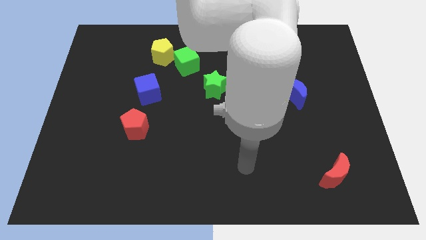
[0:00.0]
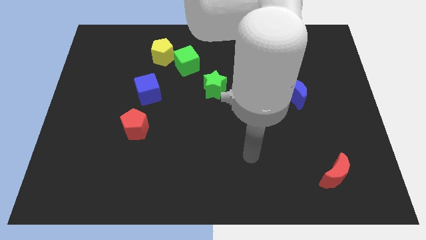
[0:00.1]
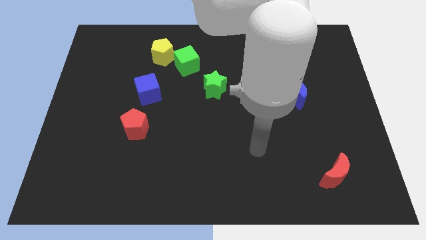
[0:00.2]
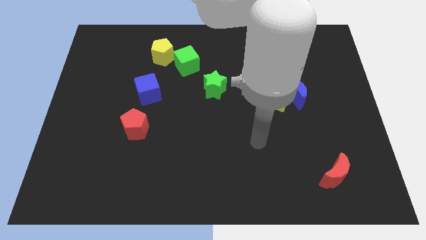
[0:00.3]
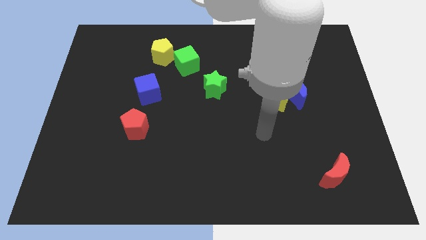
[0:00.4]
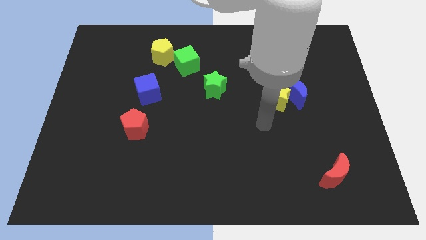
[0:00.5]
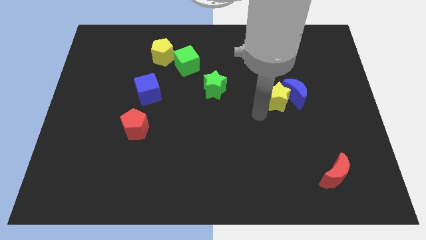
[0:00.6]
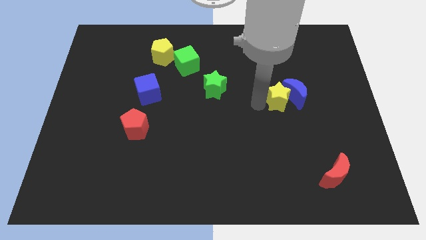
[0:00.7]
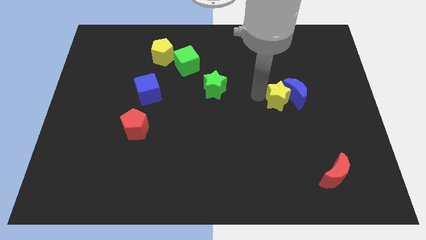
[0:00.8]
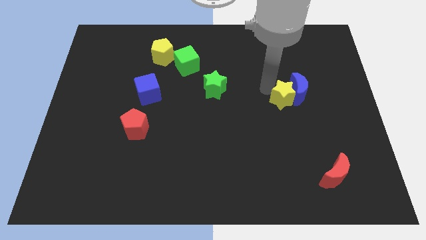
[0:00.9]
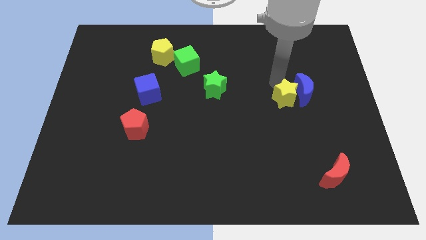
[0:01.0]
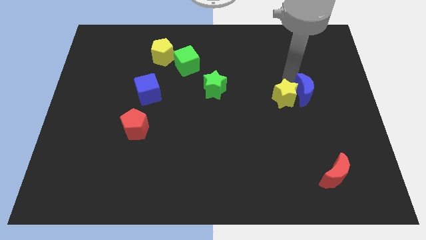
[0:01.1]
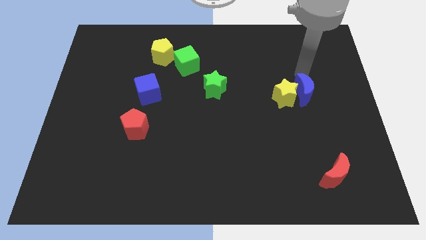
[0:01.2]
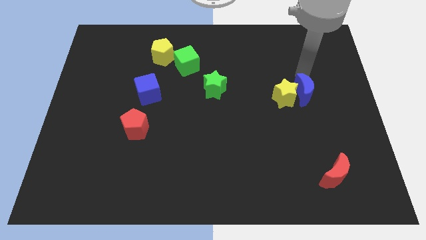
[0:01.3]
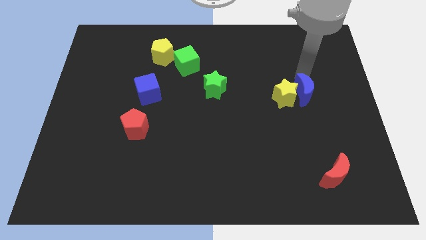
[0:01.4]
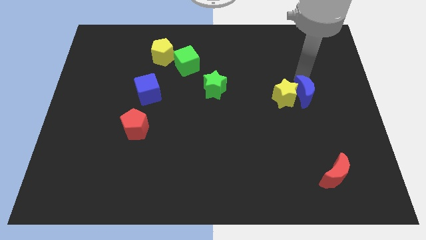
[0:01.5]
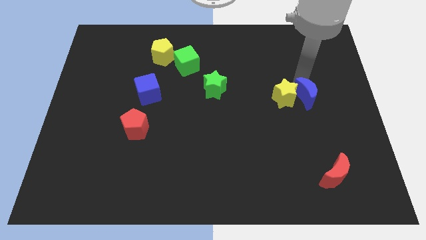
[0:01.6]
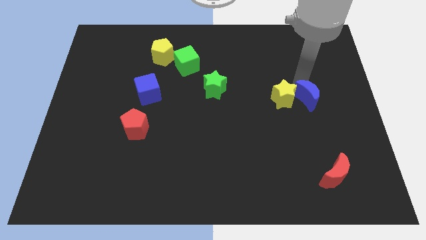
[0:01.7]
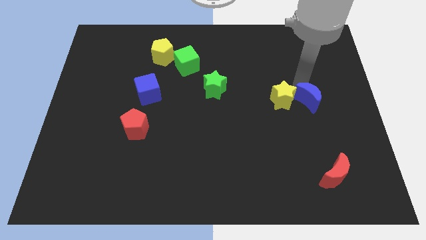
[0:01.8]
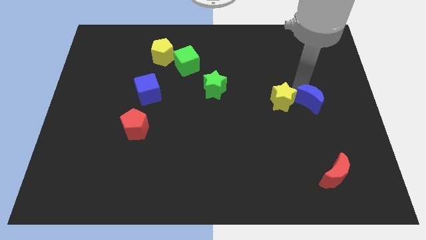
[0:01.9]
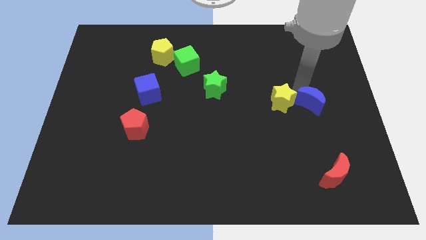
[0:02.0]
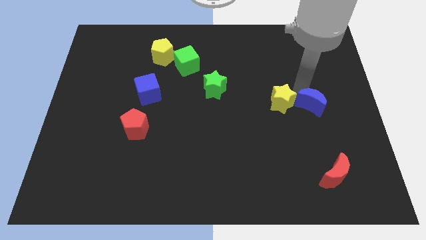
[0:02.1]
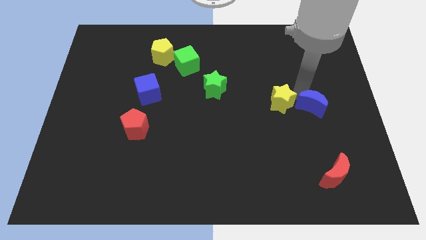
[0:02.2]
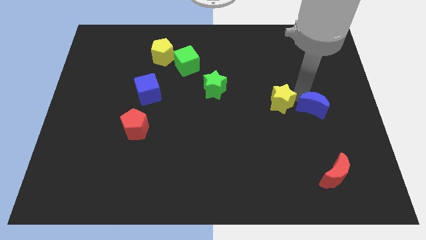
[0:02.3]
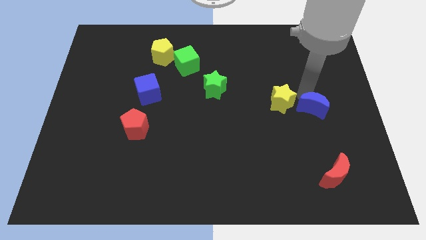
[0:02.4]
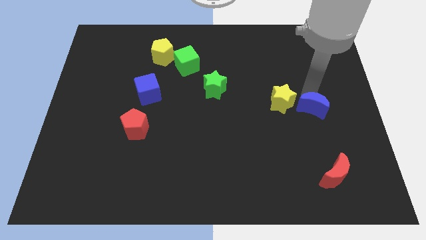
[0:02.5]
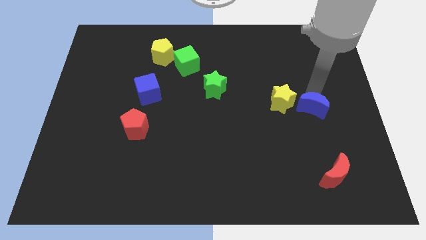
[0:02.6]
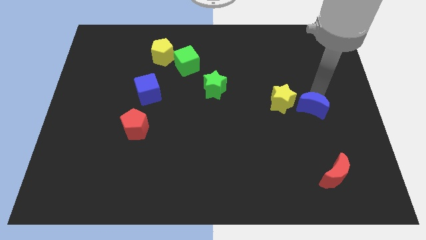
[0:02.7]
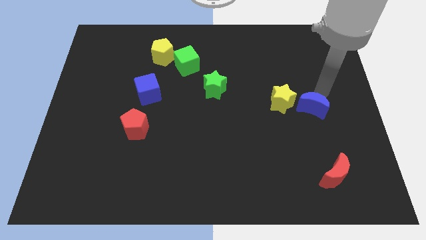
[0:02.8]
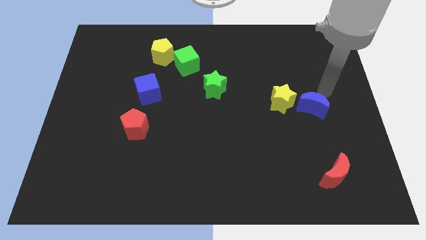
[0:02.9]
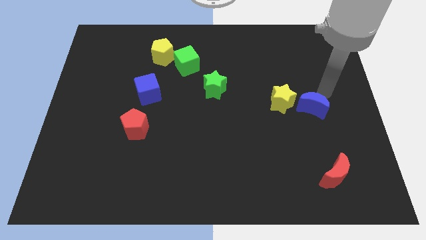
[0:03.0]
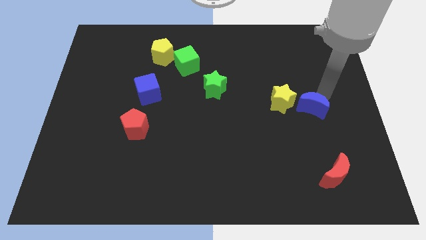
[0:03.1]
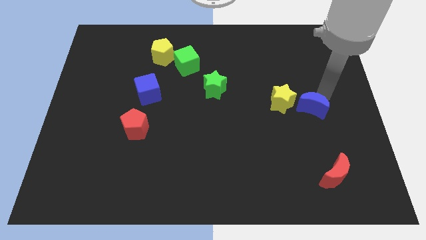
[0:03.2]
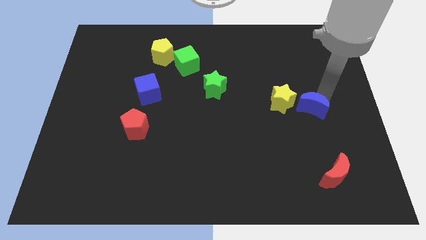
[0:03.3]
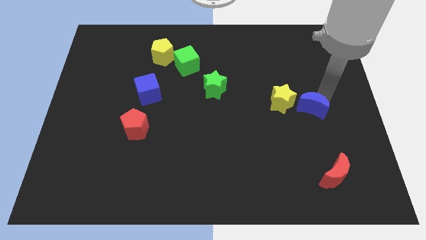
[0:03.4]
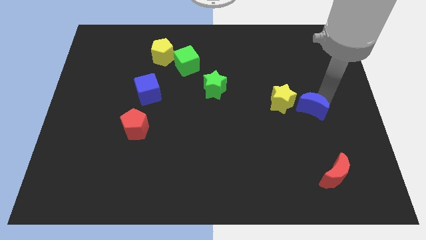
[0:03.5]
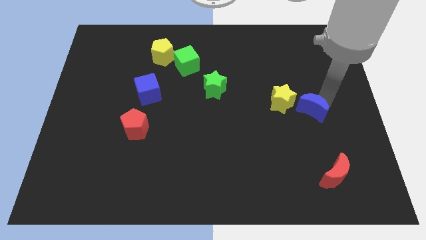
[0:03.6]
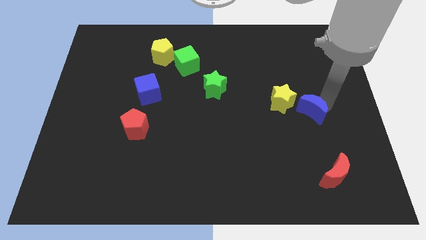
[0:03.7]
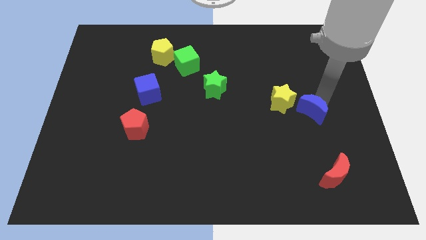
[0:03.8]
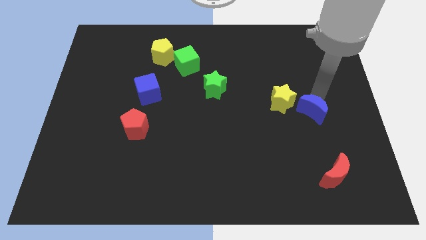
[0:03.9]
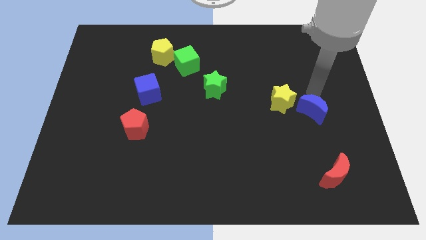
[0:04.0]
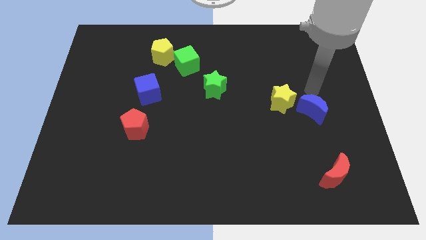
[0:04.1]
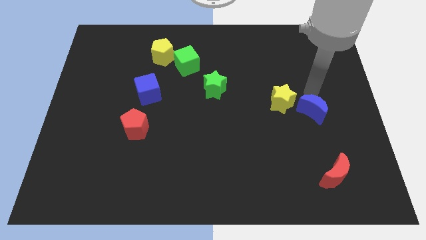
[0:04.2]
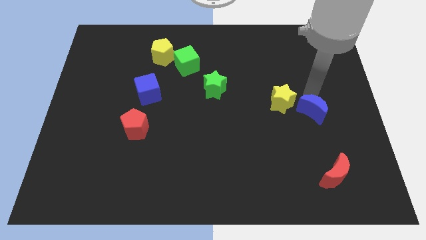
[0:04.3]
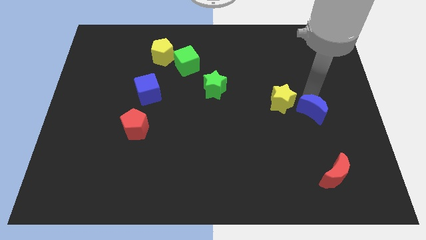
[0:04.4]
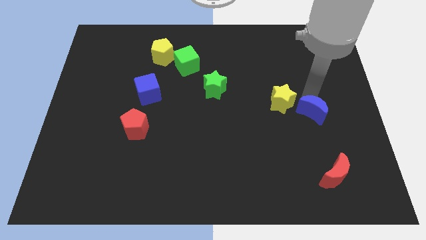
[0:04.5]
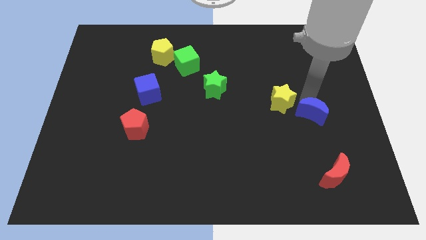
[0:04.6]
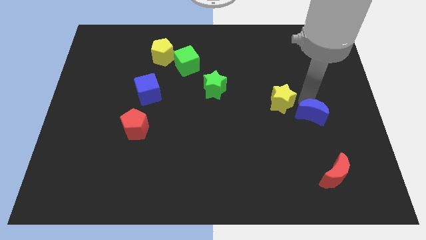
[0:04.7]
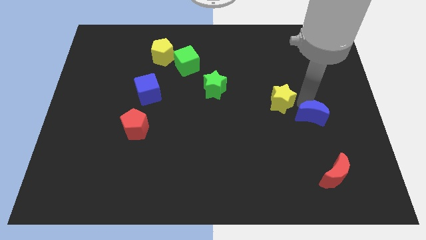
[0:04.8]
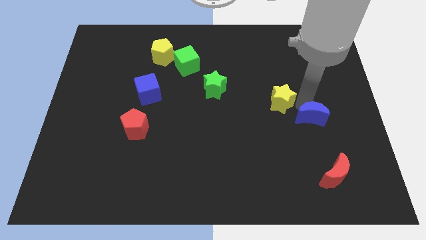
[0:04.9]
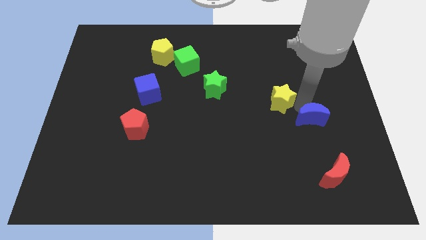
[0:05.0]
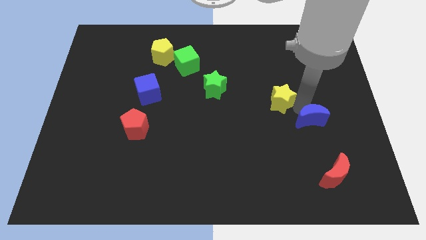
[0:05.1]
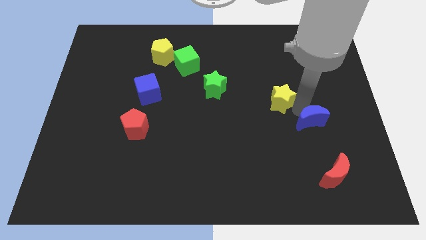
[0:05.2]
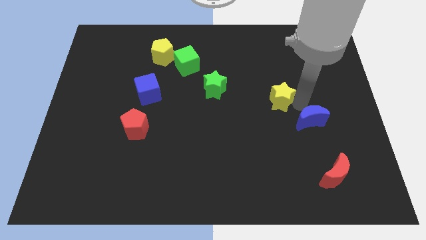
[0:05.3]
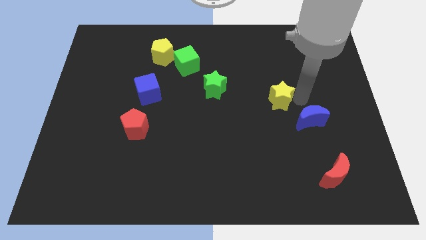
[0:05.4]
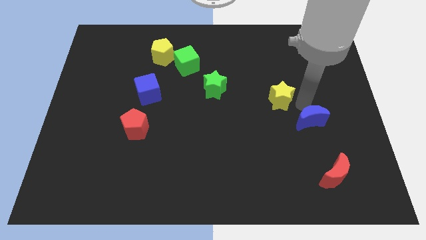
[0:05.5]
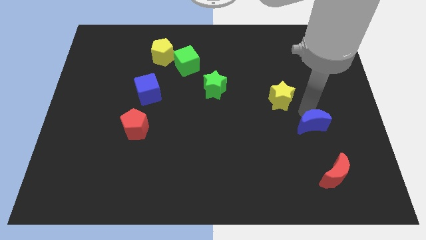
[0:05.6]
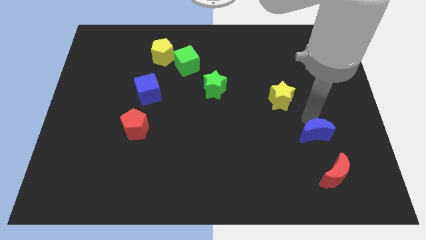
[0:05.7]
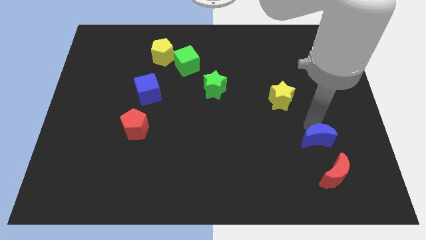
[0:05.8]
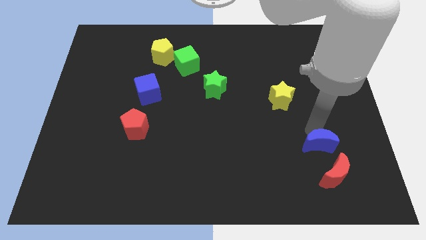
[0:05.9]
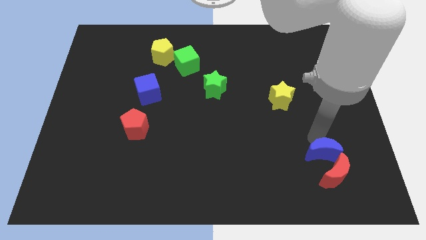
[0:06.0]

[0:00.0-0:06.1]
slide the blue moon close to the red moon

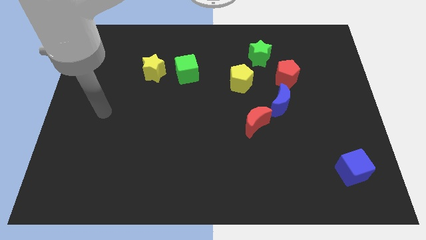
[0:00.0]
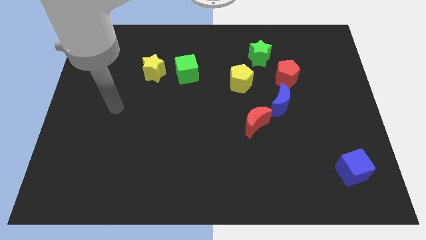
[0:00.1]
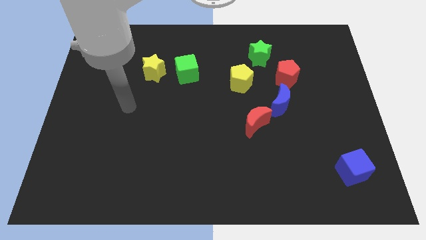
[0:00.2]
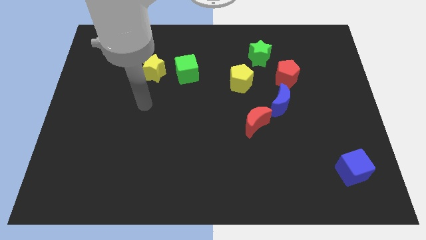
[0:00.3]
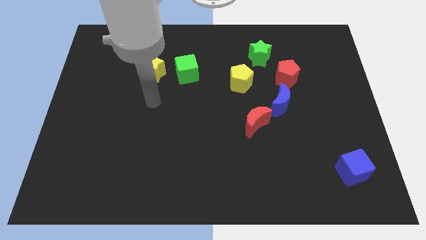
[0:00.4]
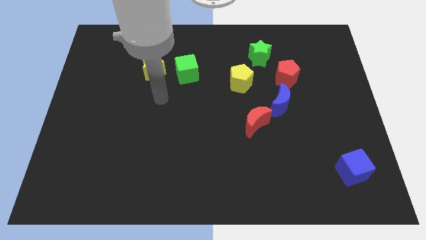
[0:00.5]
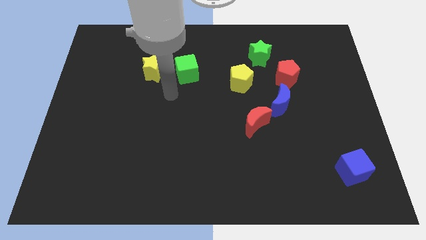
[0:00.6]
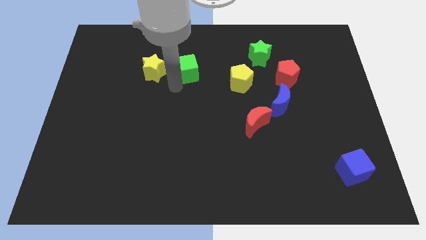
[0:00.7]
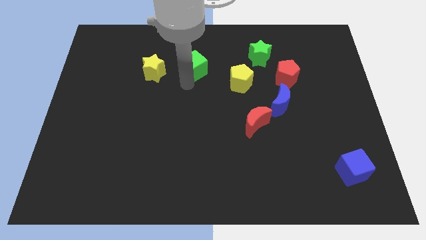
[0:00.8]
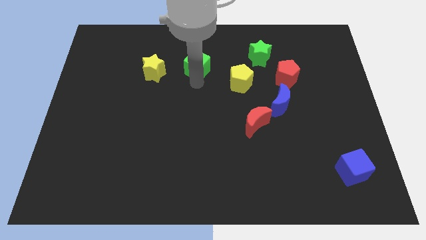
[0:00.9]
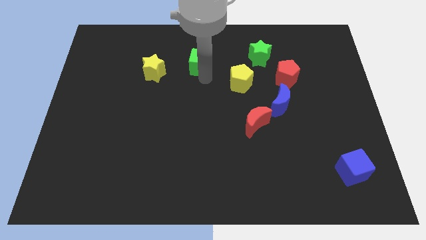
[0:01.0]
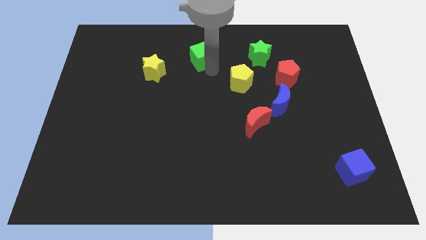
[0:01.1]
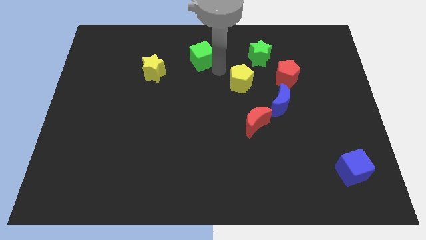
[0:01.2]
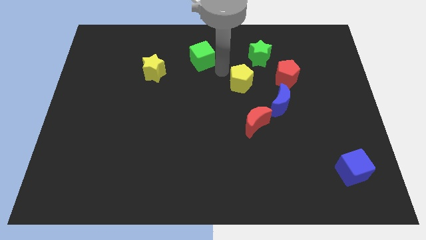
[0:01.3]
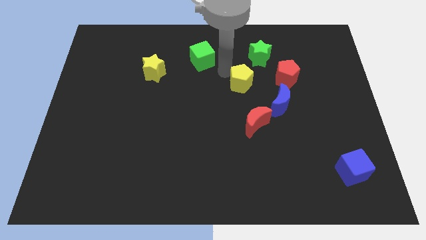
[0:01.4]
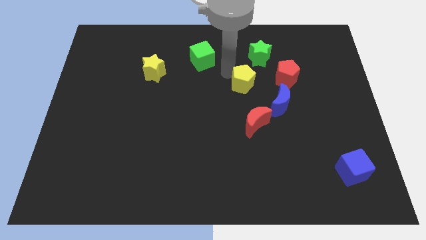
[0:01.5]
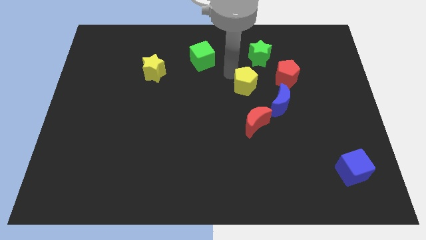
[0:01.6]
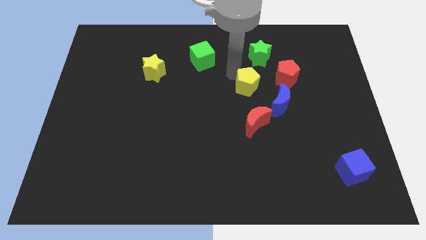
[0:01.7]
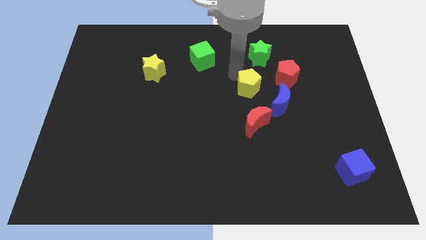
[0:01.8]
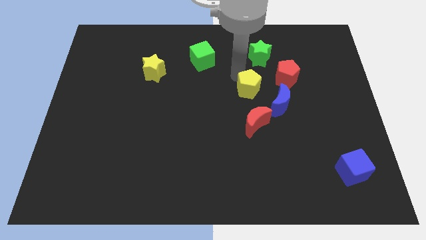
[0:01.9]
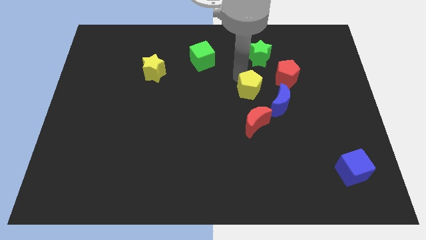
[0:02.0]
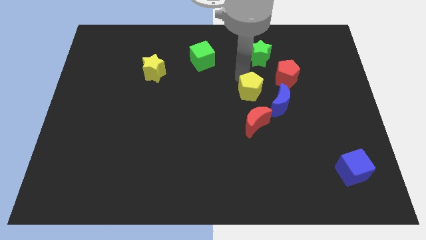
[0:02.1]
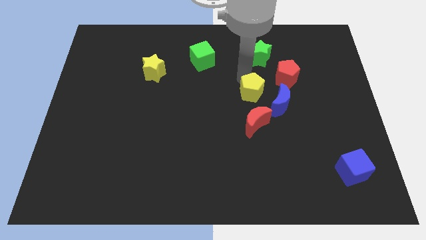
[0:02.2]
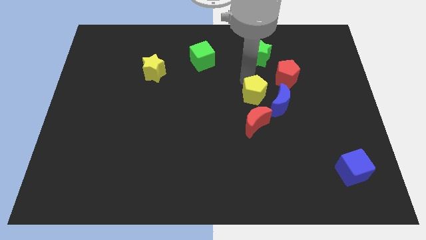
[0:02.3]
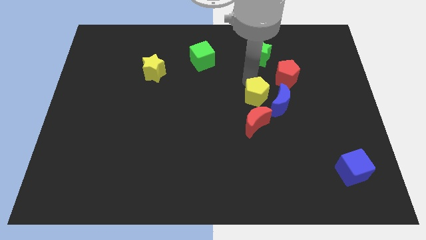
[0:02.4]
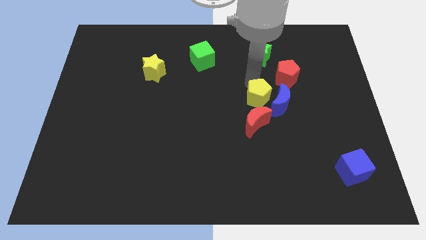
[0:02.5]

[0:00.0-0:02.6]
move the yellow pentagon next to the blue moon
